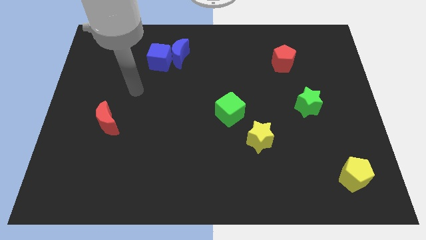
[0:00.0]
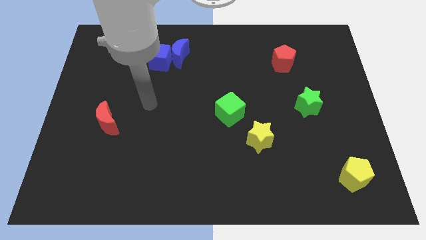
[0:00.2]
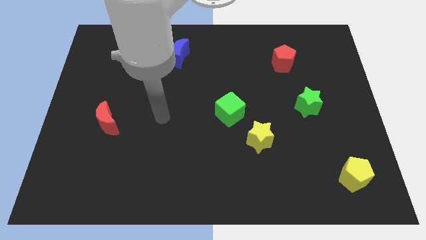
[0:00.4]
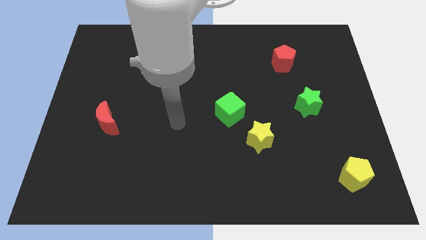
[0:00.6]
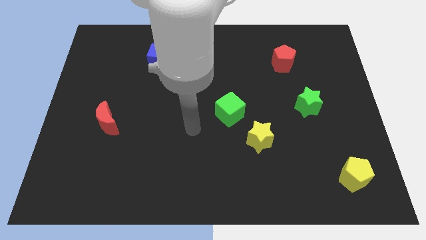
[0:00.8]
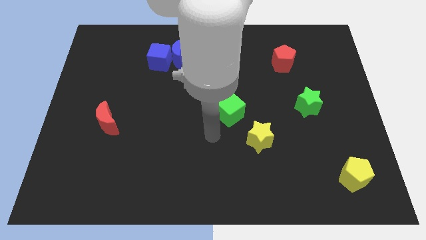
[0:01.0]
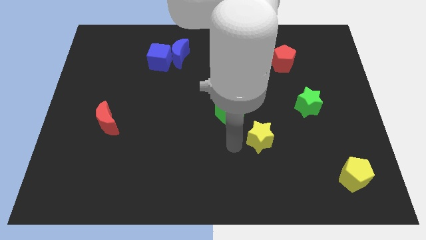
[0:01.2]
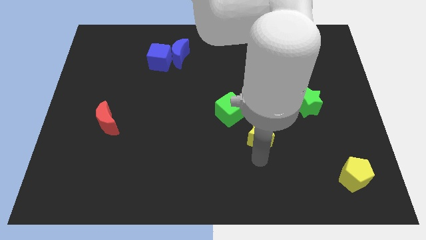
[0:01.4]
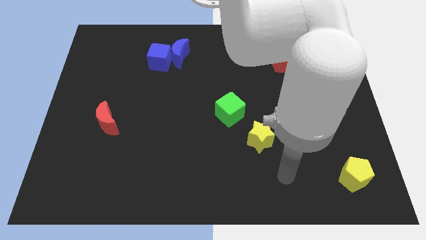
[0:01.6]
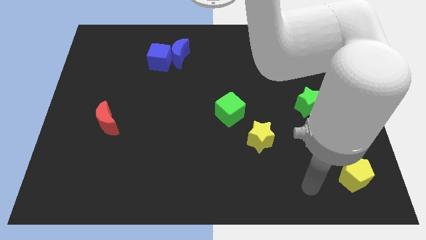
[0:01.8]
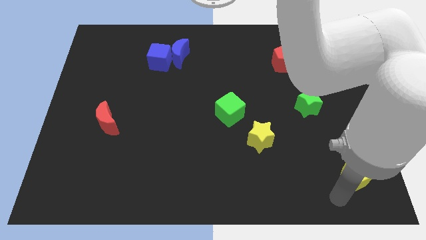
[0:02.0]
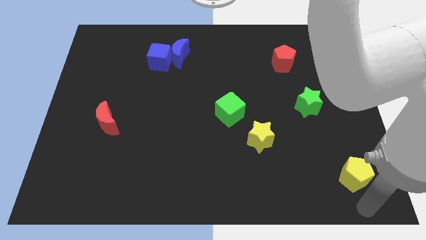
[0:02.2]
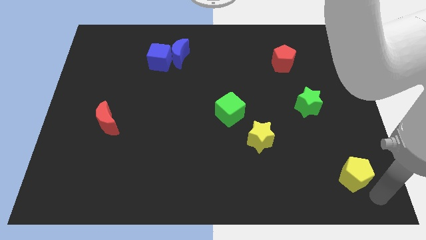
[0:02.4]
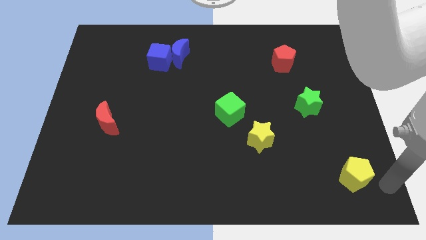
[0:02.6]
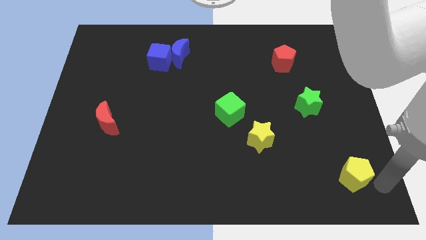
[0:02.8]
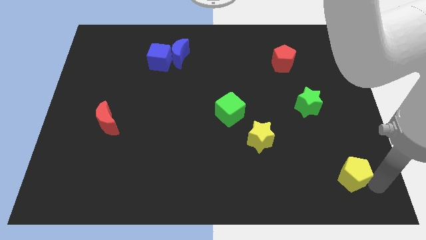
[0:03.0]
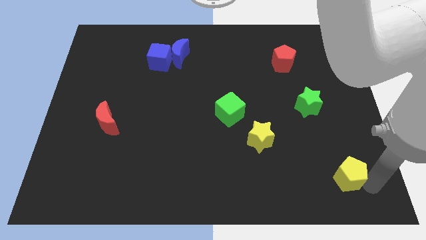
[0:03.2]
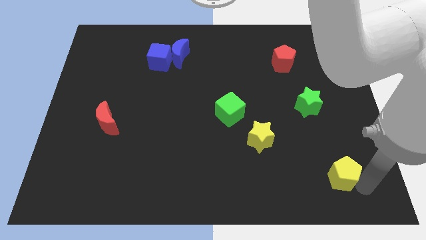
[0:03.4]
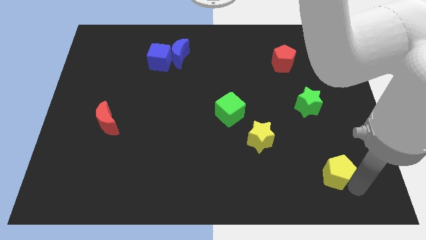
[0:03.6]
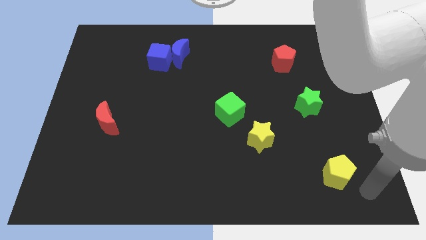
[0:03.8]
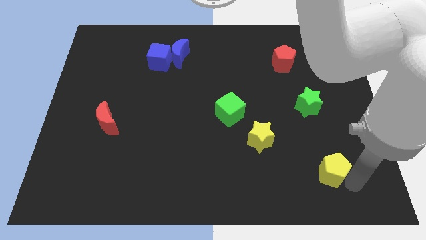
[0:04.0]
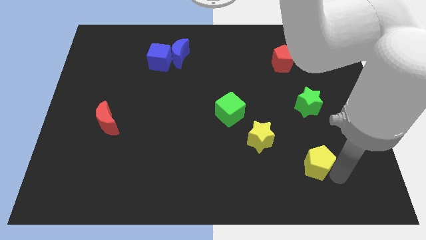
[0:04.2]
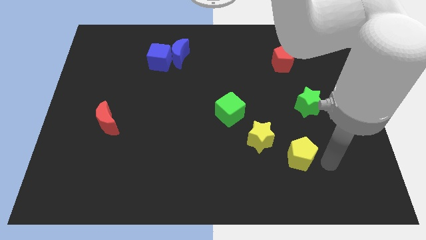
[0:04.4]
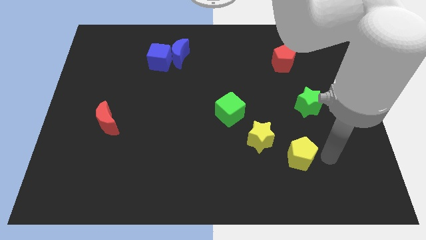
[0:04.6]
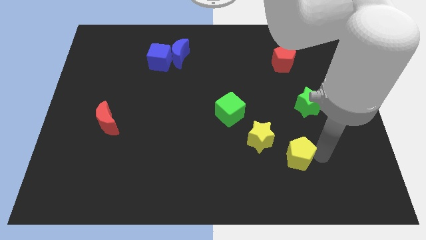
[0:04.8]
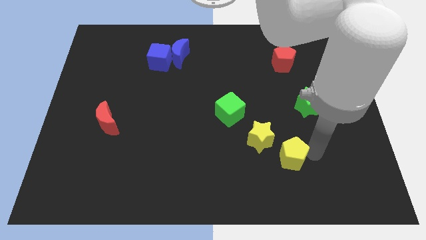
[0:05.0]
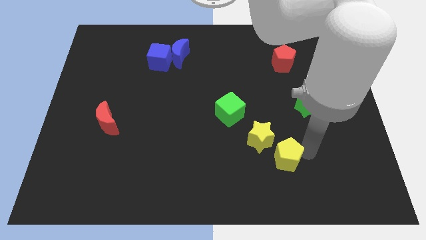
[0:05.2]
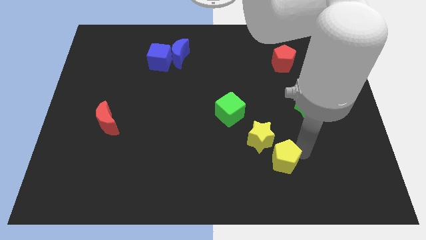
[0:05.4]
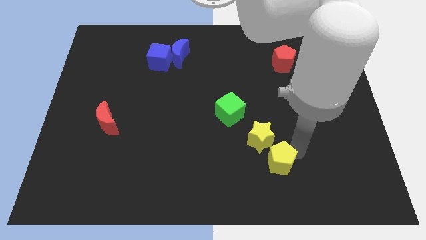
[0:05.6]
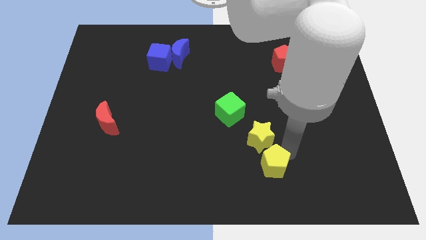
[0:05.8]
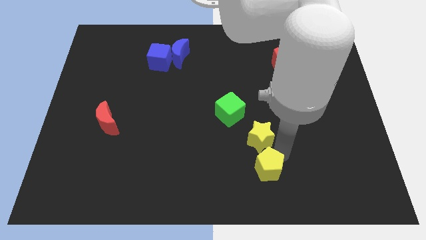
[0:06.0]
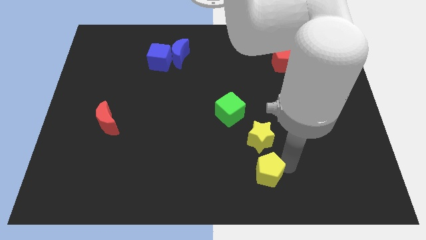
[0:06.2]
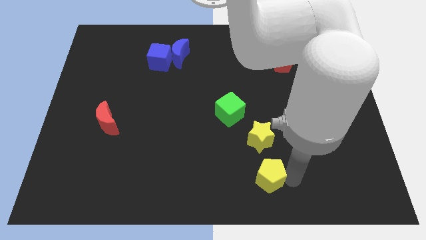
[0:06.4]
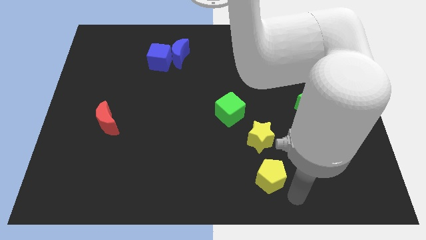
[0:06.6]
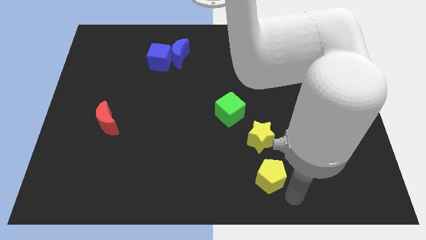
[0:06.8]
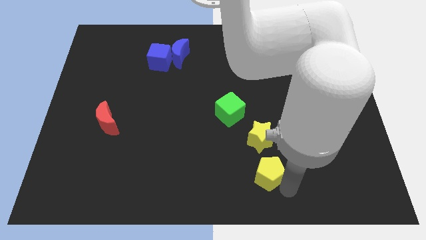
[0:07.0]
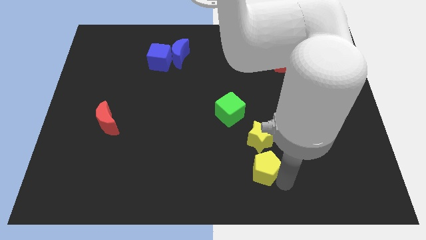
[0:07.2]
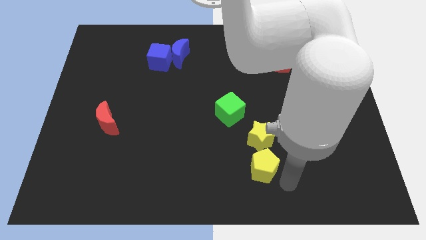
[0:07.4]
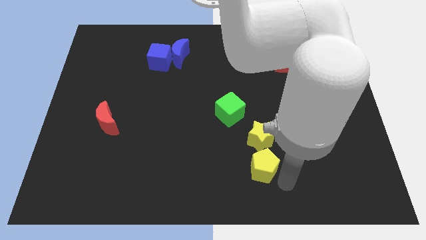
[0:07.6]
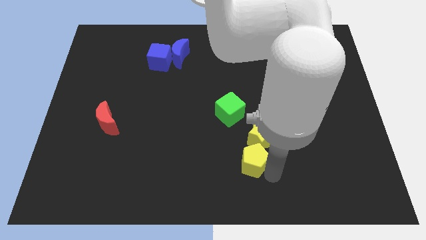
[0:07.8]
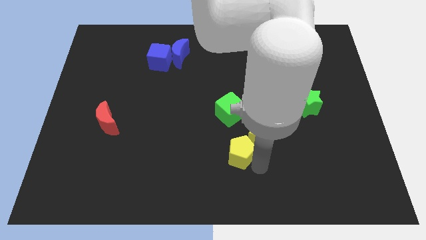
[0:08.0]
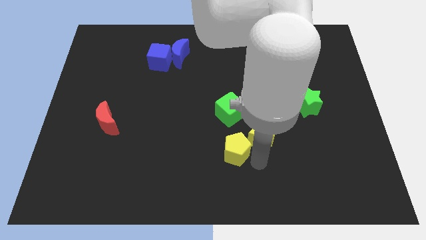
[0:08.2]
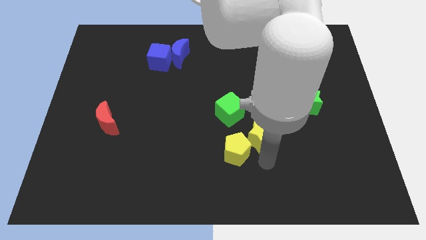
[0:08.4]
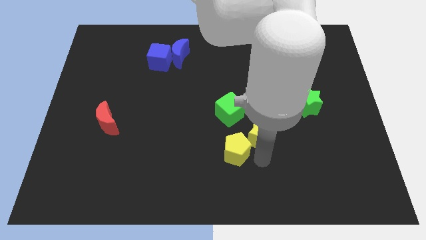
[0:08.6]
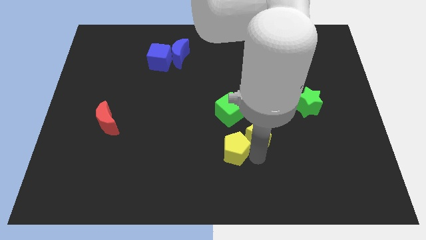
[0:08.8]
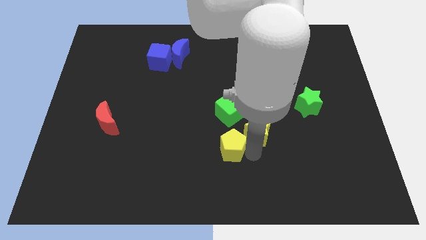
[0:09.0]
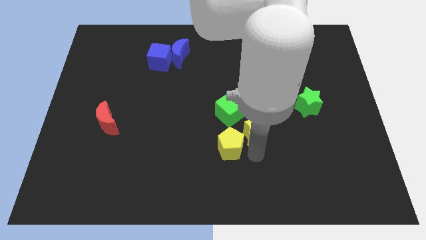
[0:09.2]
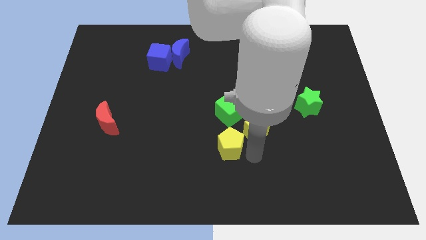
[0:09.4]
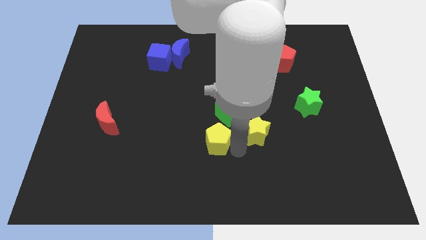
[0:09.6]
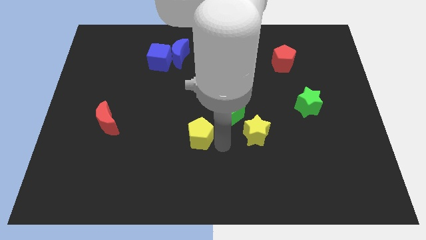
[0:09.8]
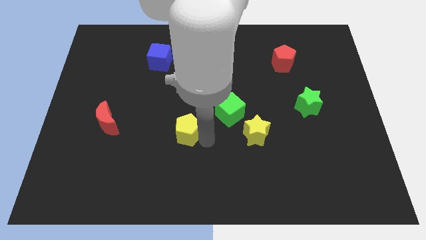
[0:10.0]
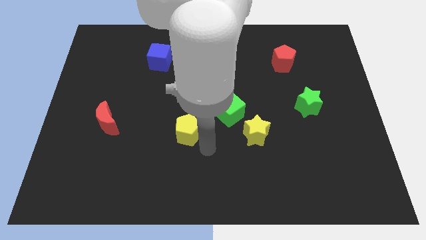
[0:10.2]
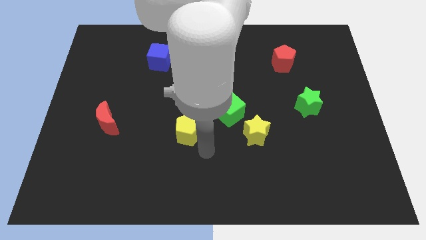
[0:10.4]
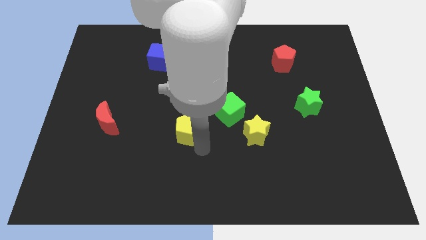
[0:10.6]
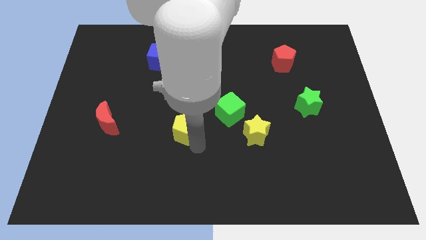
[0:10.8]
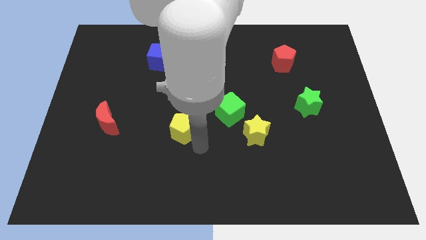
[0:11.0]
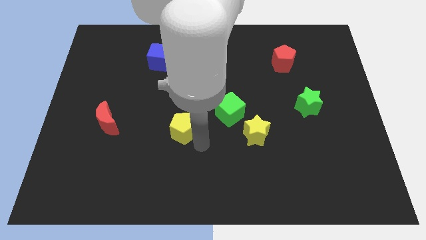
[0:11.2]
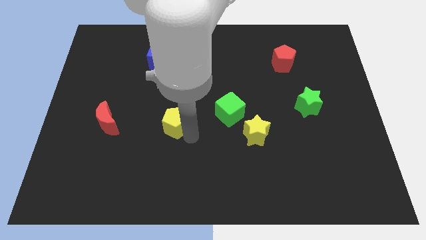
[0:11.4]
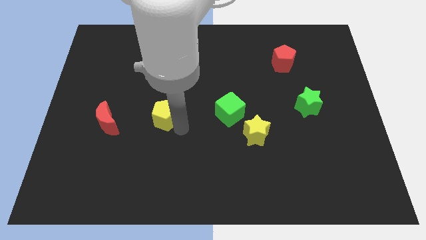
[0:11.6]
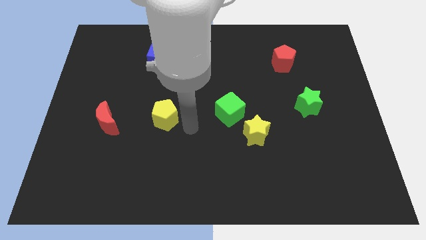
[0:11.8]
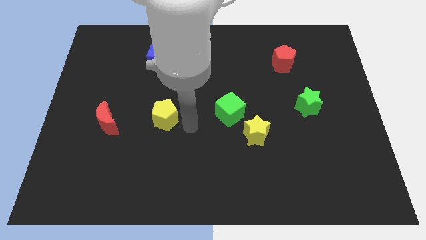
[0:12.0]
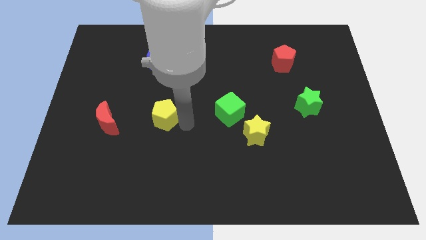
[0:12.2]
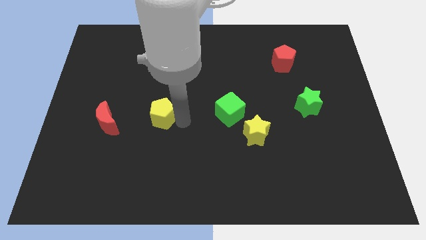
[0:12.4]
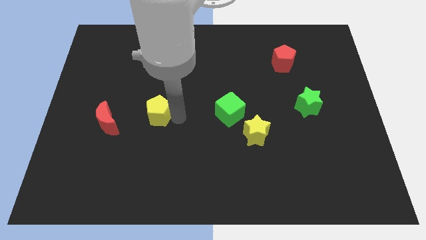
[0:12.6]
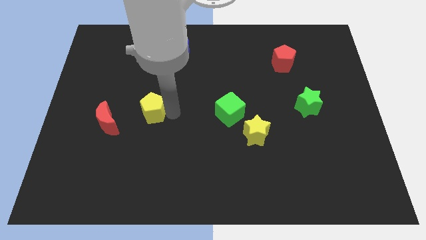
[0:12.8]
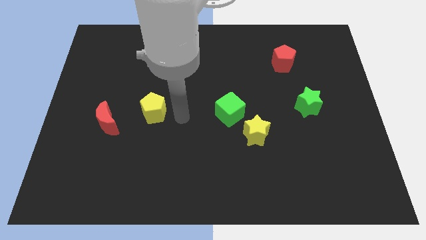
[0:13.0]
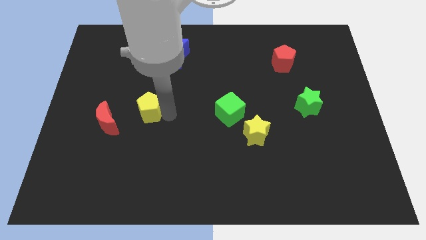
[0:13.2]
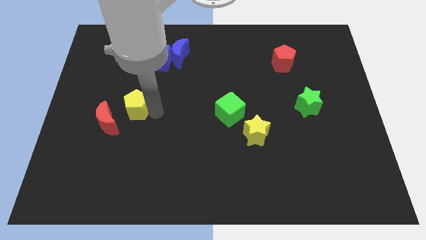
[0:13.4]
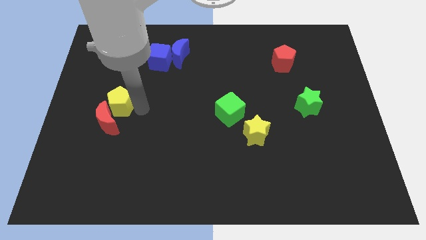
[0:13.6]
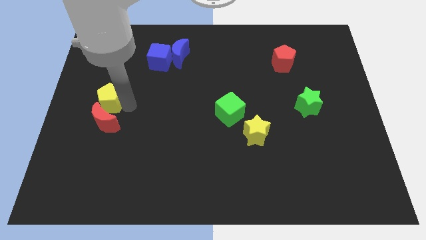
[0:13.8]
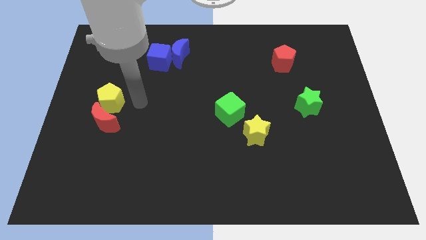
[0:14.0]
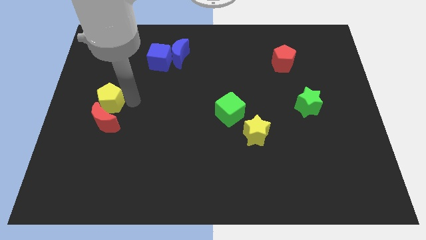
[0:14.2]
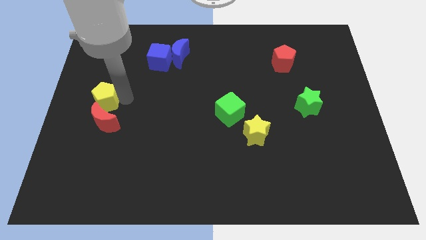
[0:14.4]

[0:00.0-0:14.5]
push the yellow pentagon to the center left
